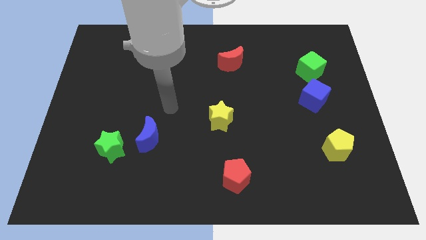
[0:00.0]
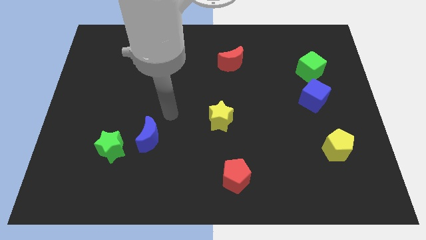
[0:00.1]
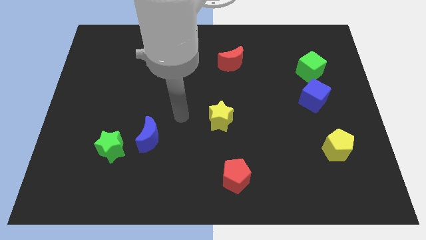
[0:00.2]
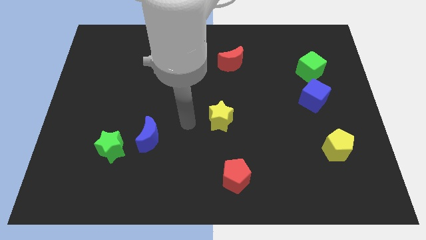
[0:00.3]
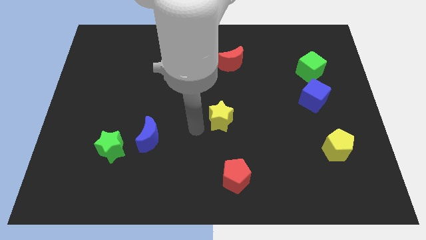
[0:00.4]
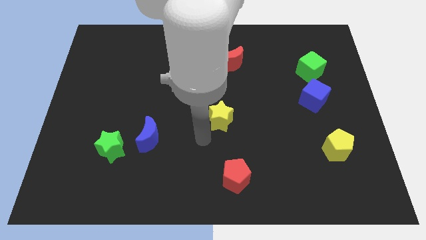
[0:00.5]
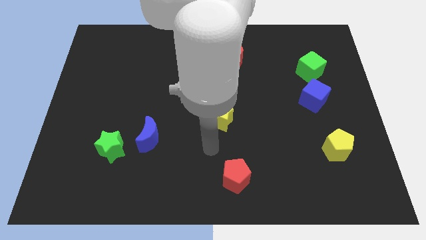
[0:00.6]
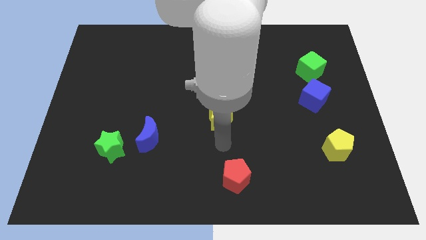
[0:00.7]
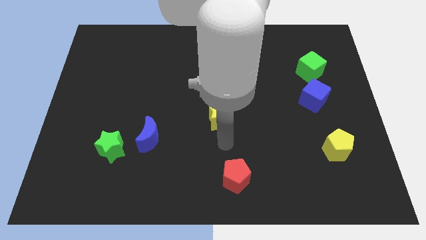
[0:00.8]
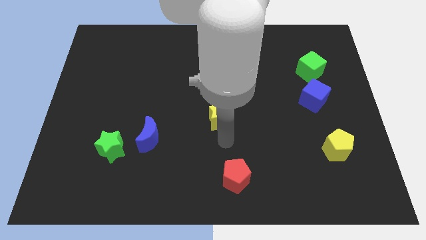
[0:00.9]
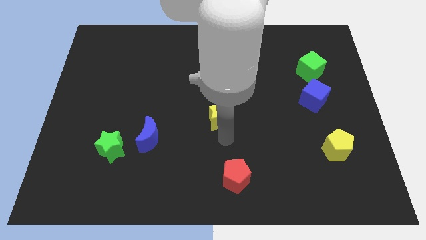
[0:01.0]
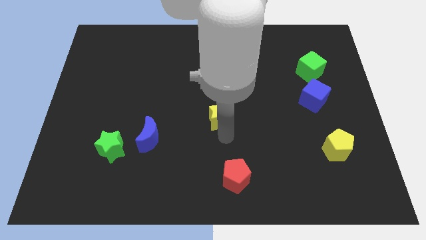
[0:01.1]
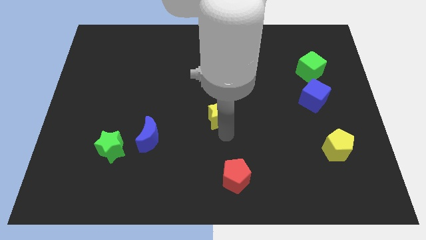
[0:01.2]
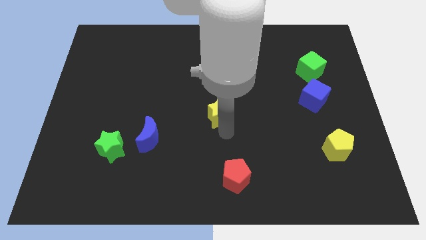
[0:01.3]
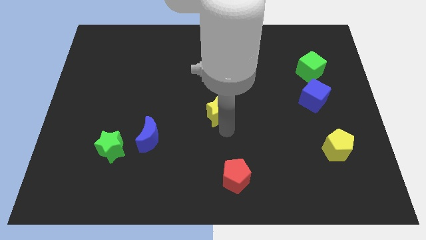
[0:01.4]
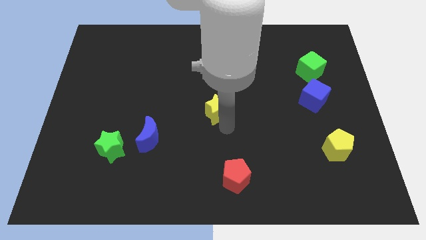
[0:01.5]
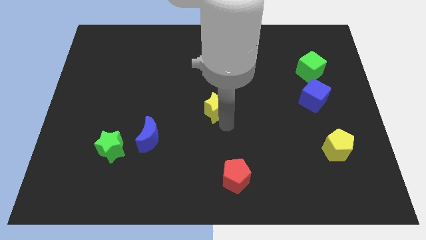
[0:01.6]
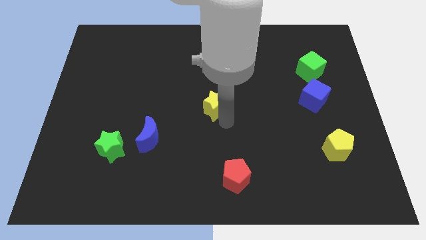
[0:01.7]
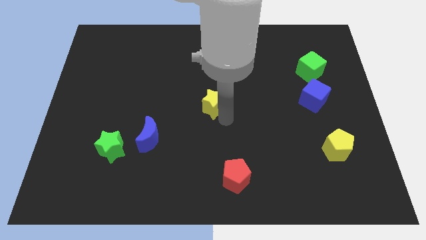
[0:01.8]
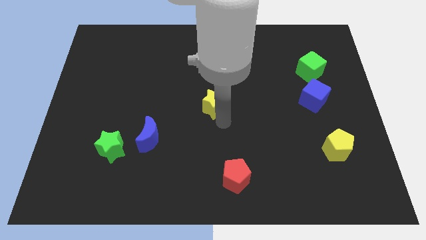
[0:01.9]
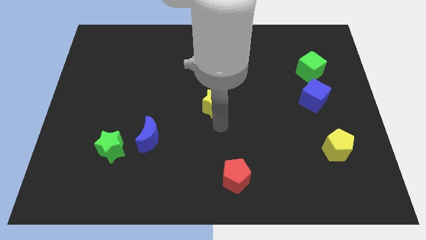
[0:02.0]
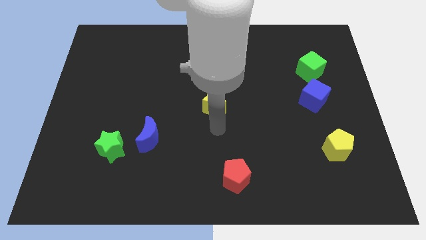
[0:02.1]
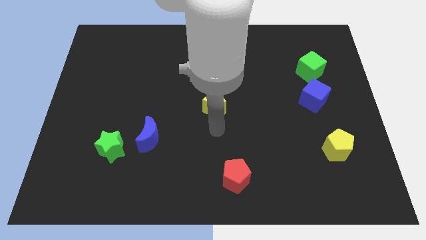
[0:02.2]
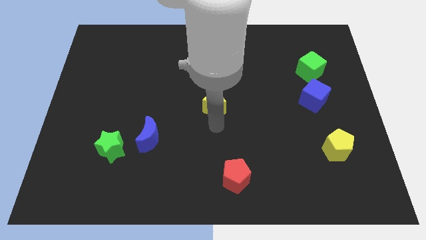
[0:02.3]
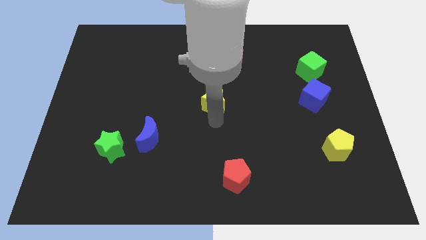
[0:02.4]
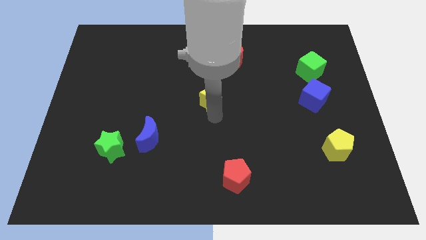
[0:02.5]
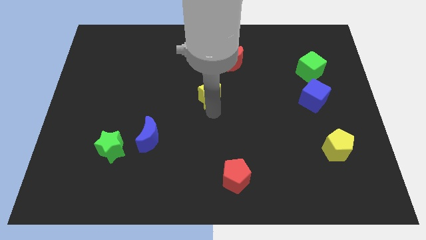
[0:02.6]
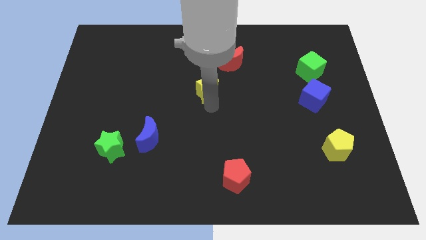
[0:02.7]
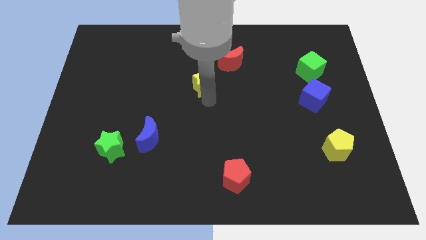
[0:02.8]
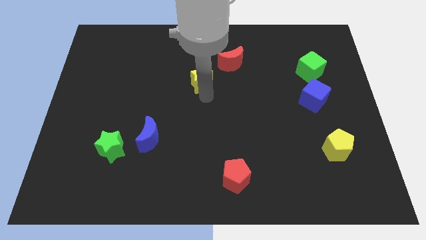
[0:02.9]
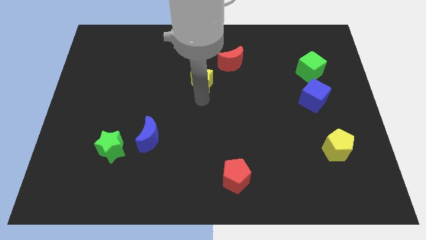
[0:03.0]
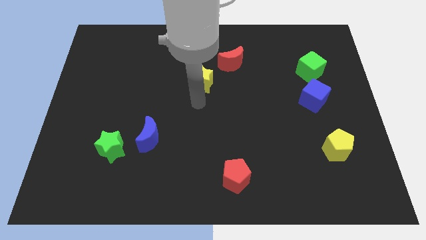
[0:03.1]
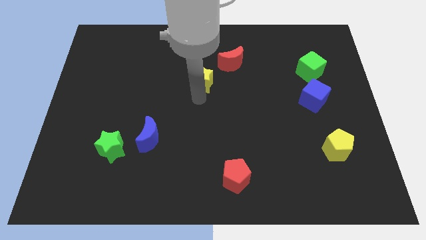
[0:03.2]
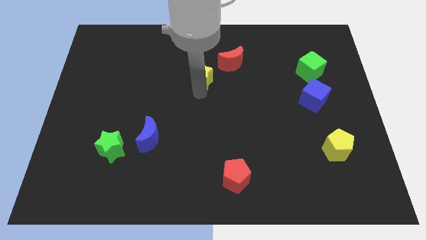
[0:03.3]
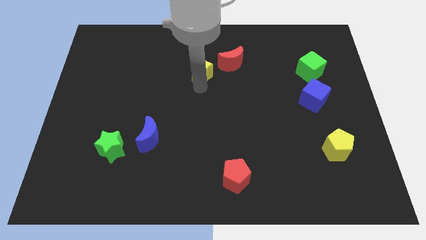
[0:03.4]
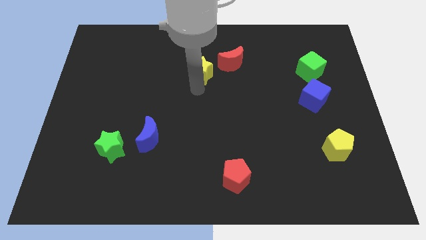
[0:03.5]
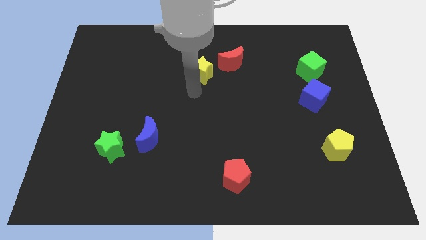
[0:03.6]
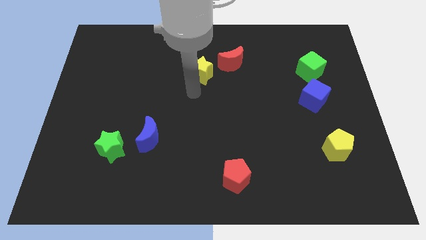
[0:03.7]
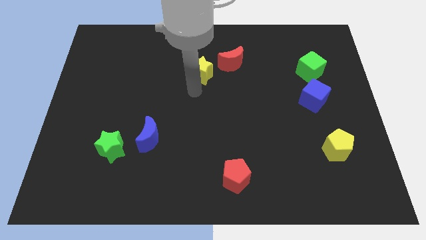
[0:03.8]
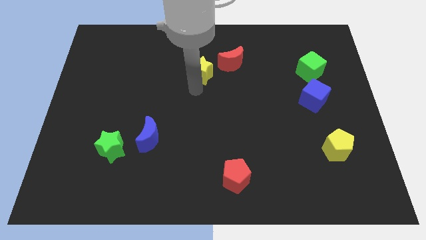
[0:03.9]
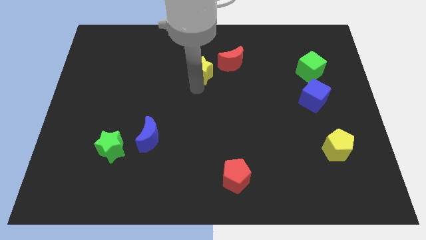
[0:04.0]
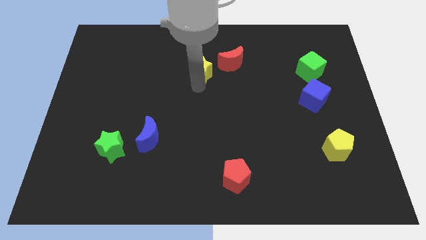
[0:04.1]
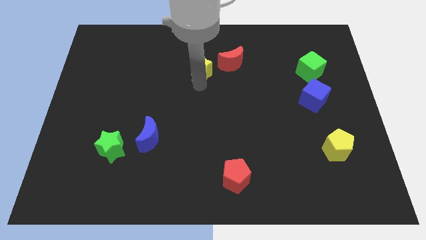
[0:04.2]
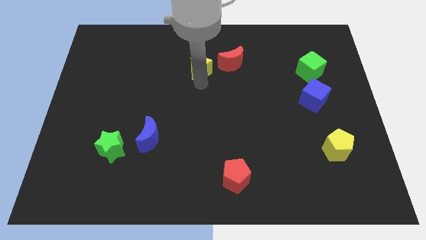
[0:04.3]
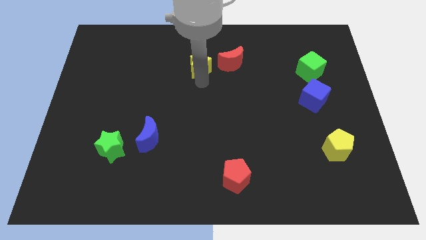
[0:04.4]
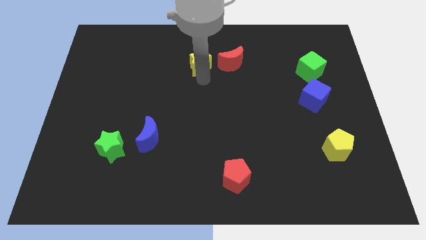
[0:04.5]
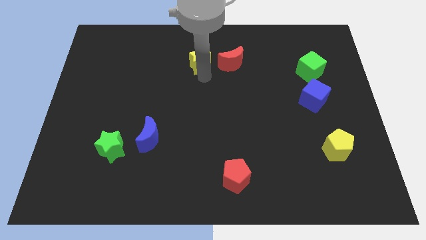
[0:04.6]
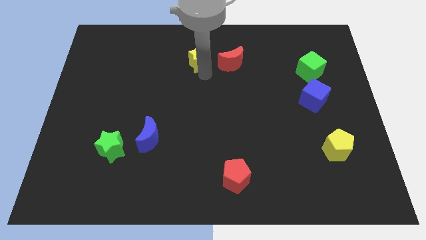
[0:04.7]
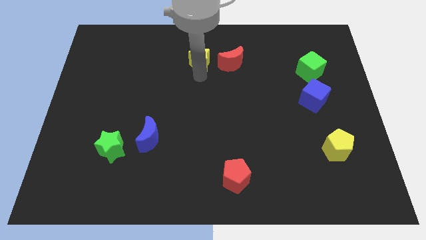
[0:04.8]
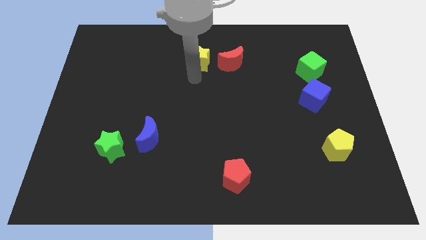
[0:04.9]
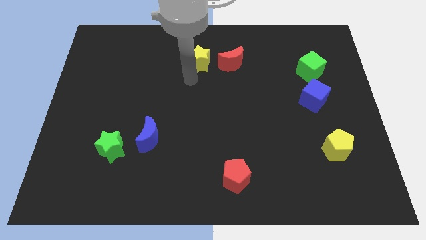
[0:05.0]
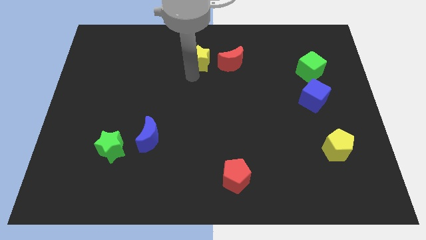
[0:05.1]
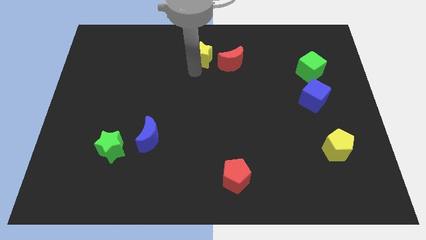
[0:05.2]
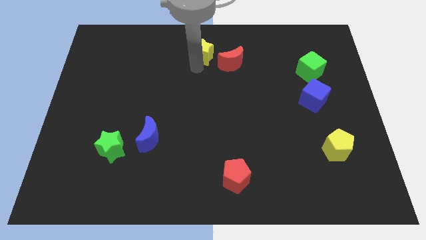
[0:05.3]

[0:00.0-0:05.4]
slide the yellow star to the top

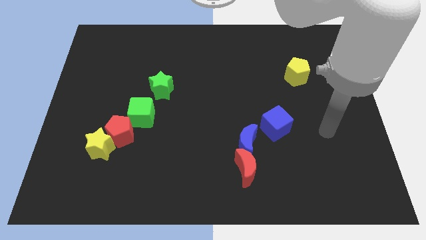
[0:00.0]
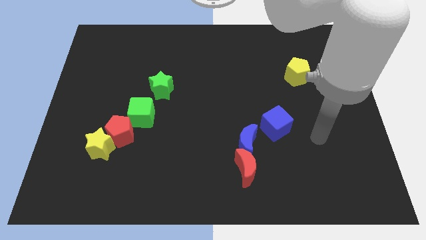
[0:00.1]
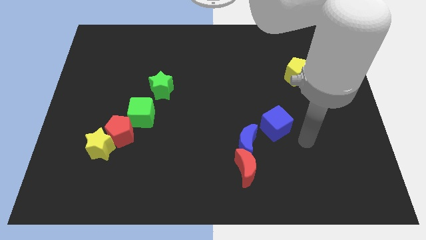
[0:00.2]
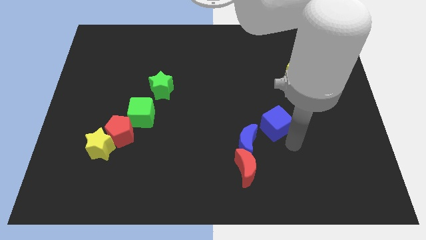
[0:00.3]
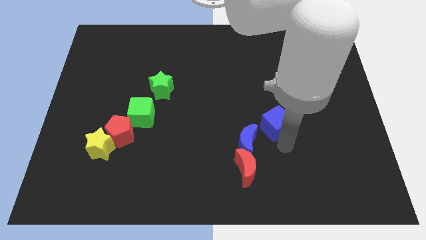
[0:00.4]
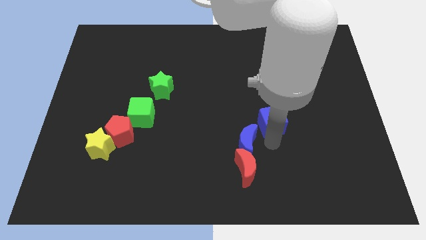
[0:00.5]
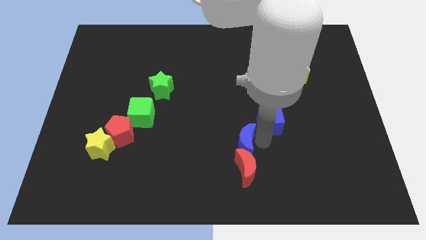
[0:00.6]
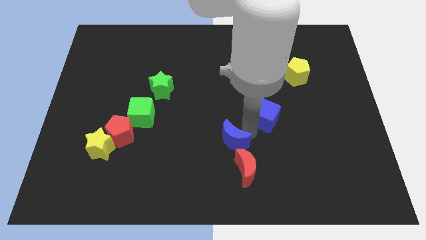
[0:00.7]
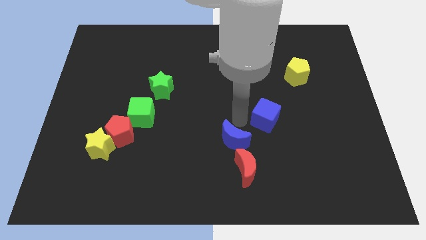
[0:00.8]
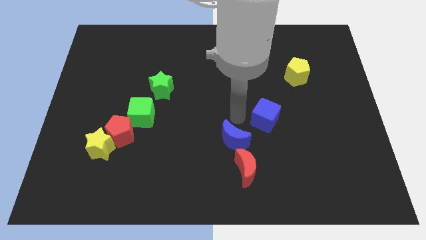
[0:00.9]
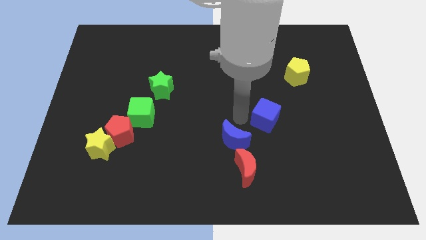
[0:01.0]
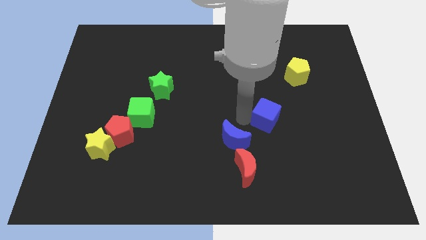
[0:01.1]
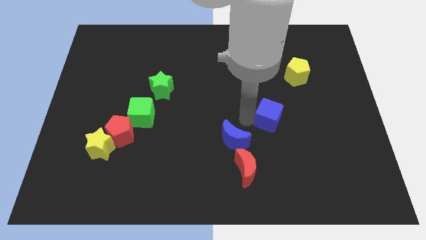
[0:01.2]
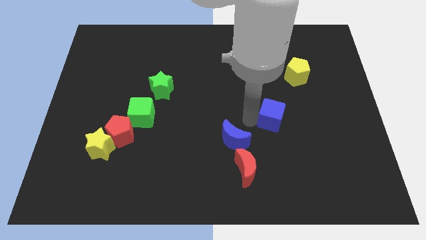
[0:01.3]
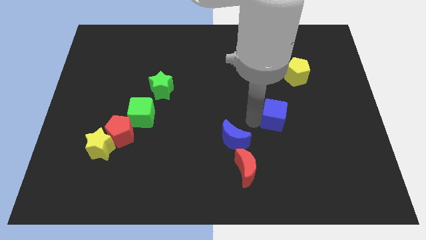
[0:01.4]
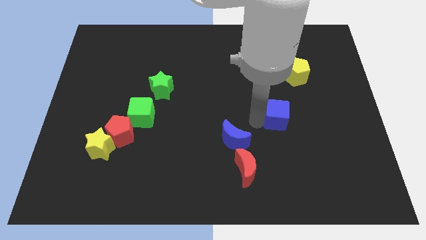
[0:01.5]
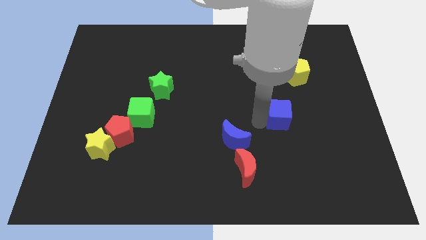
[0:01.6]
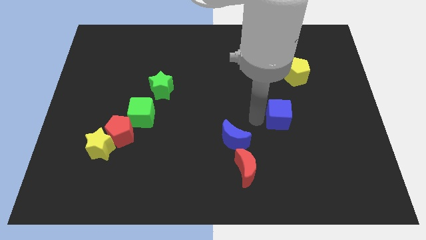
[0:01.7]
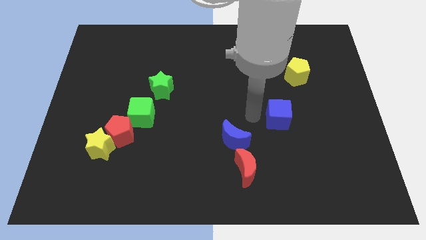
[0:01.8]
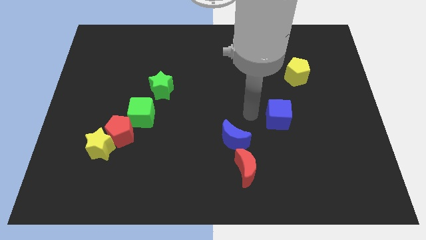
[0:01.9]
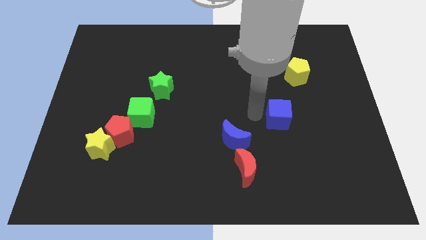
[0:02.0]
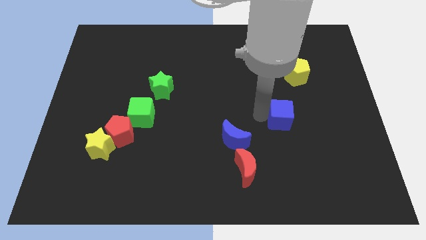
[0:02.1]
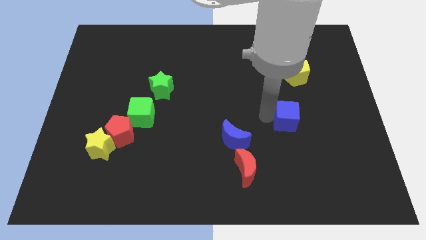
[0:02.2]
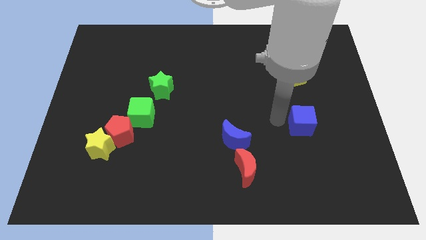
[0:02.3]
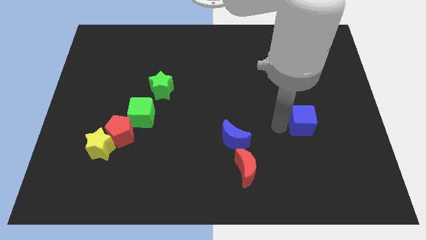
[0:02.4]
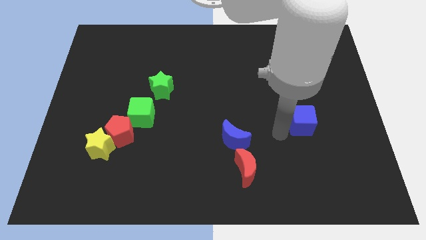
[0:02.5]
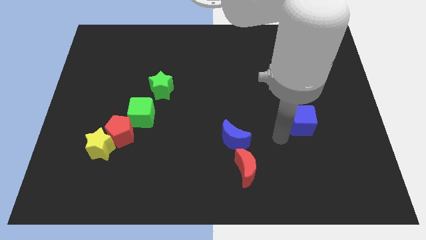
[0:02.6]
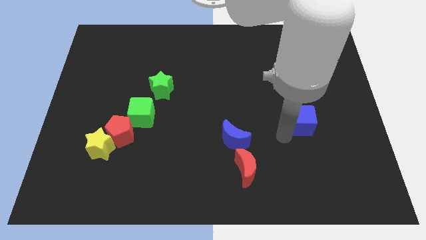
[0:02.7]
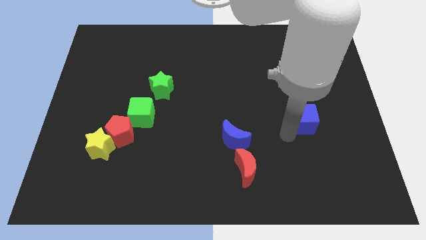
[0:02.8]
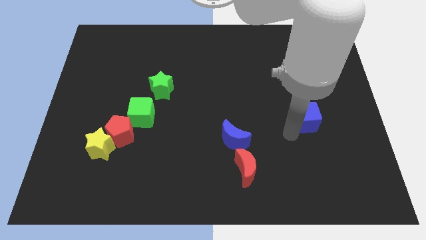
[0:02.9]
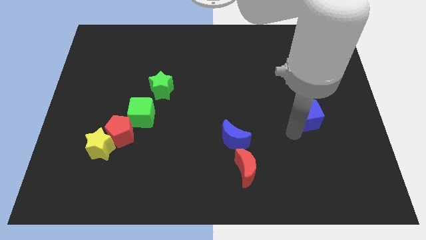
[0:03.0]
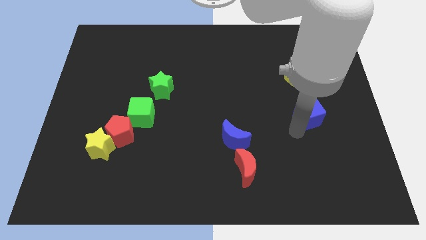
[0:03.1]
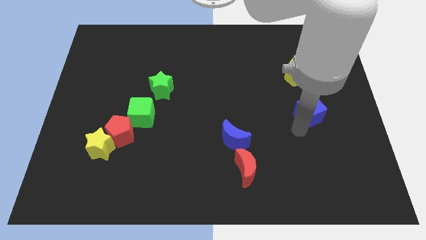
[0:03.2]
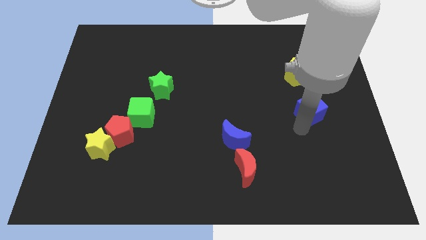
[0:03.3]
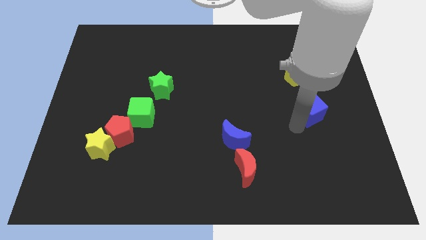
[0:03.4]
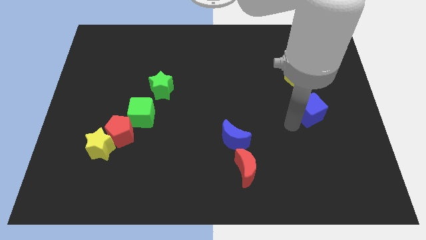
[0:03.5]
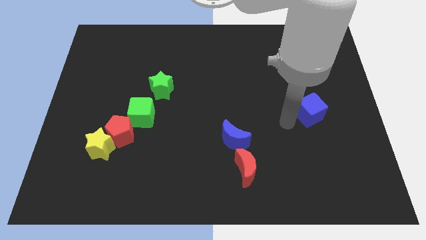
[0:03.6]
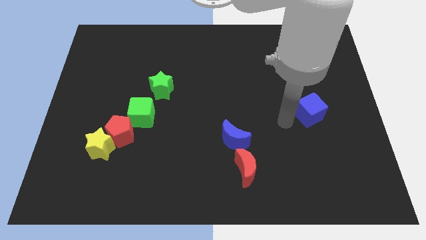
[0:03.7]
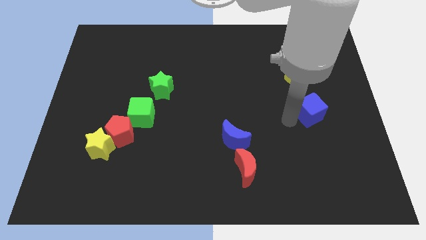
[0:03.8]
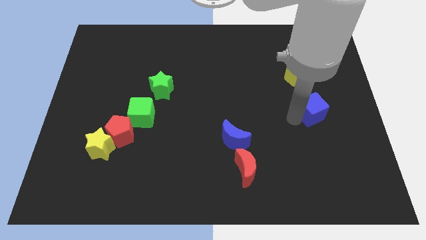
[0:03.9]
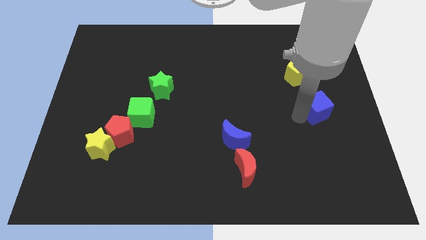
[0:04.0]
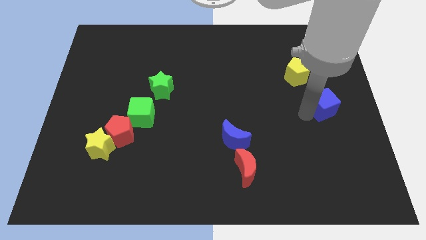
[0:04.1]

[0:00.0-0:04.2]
move the blue cube to the center right
